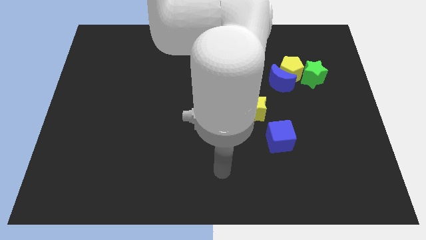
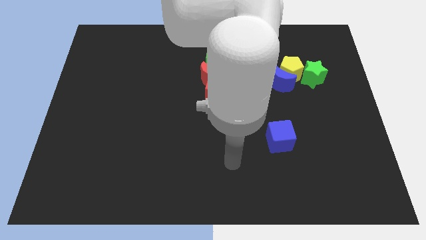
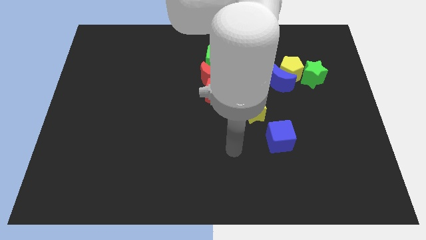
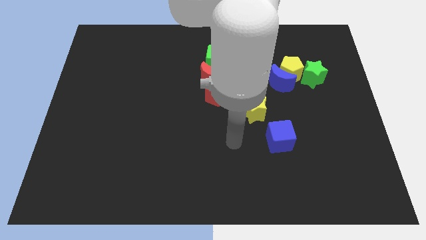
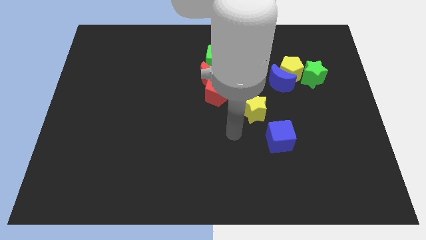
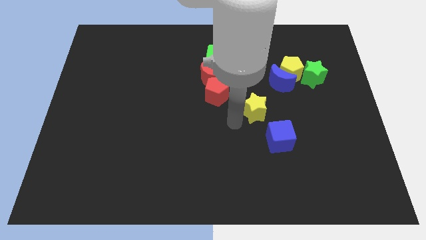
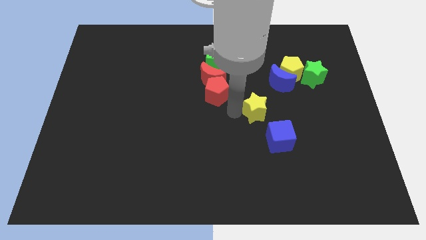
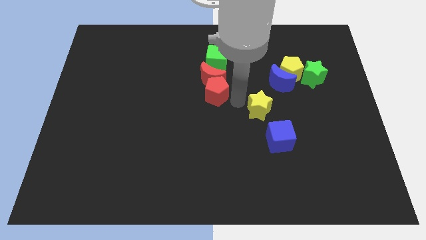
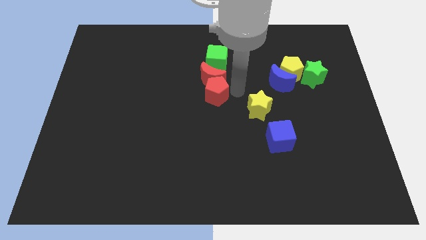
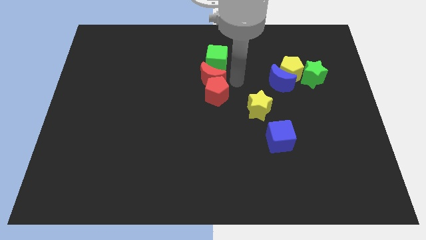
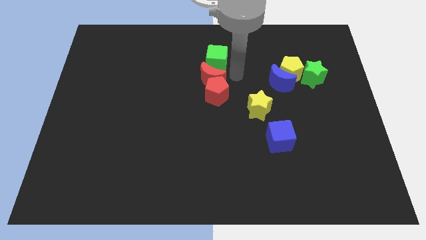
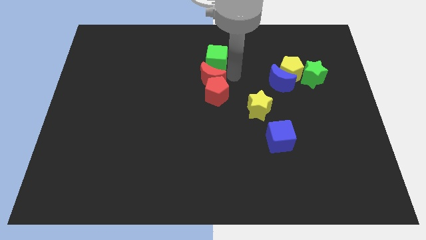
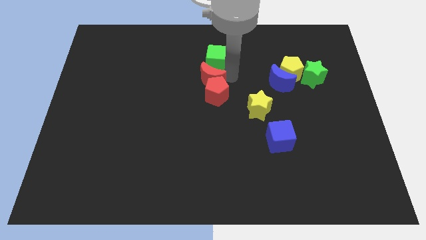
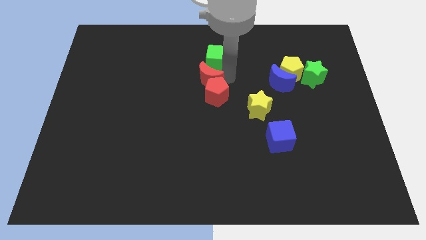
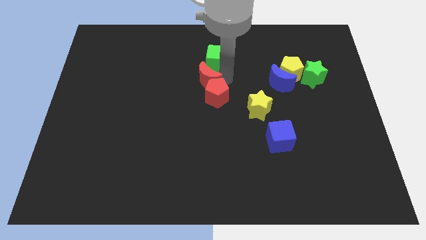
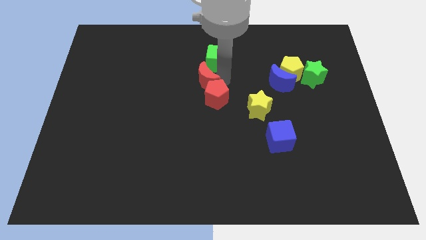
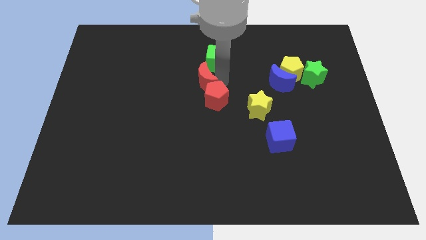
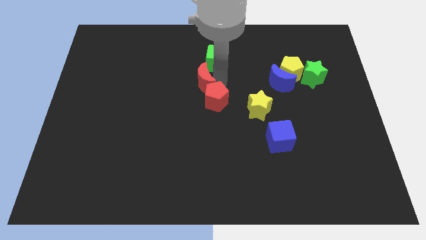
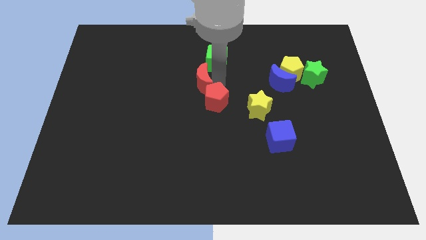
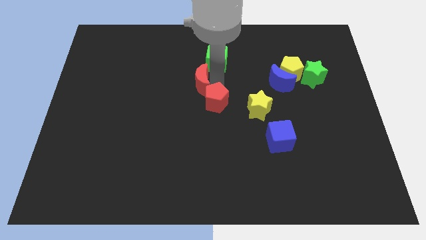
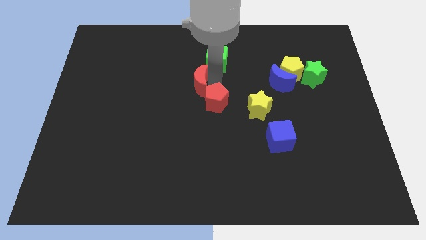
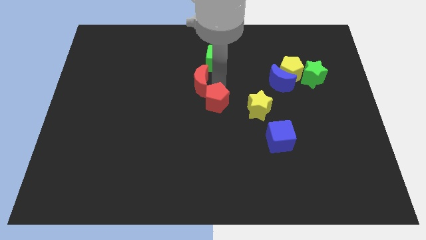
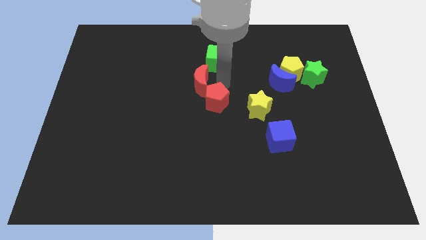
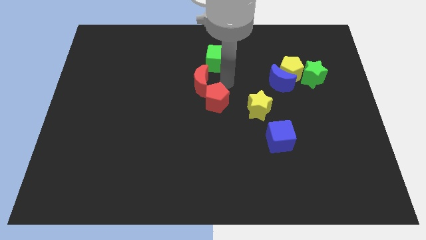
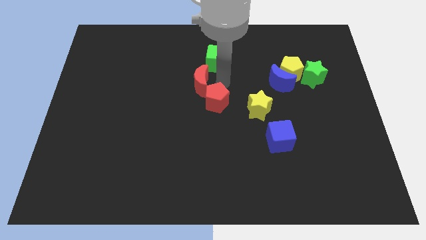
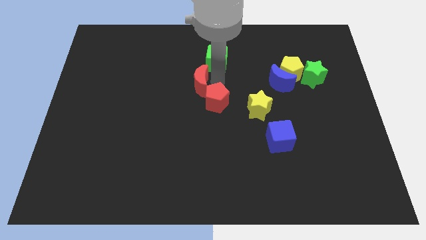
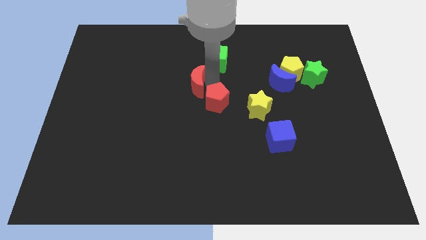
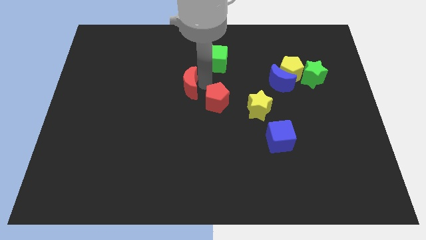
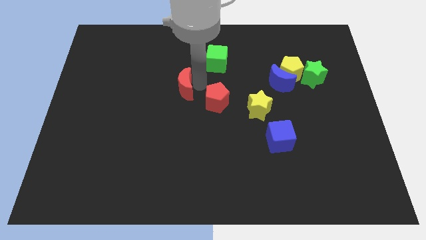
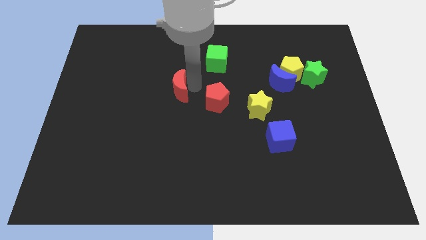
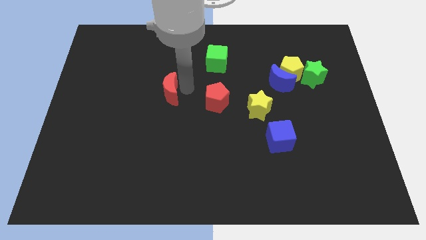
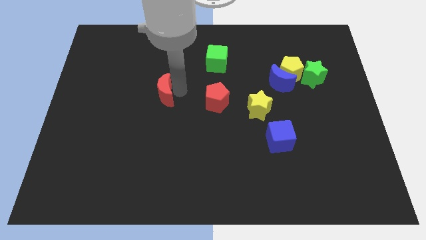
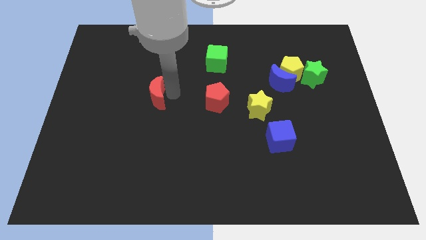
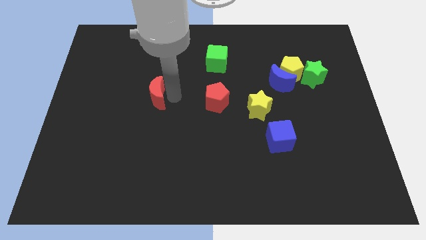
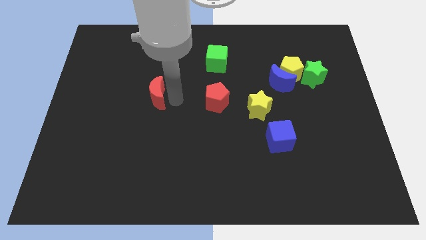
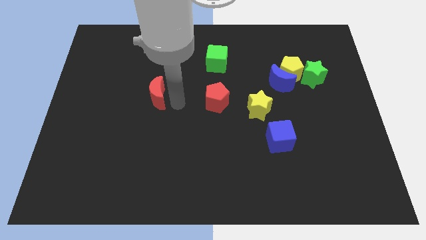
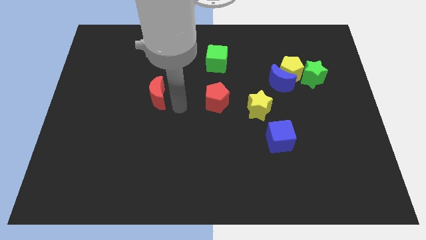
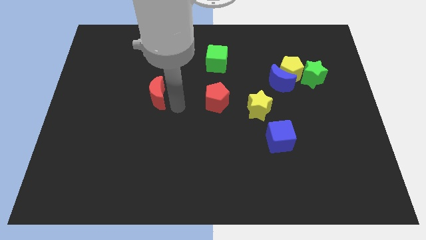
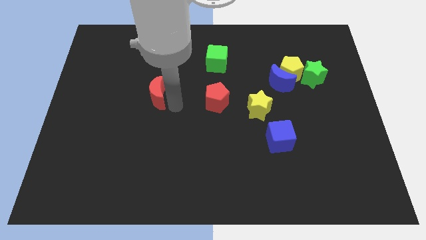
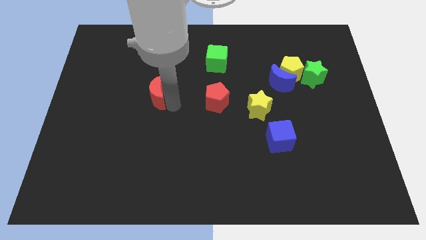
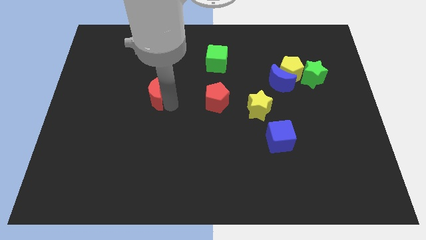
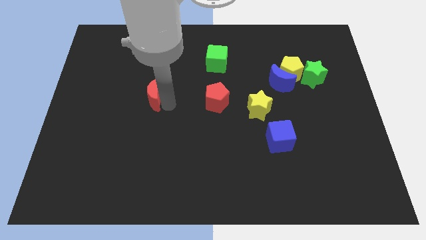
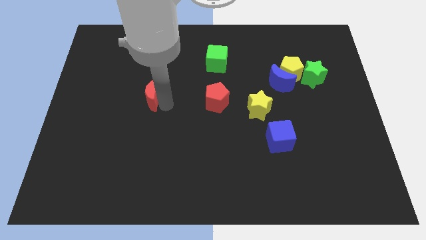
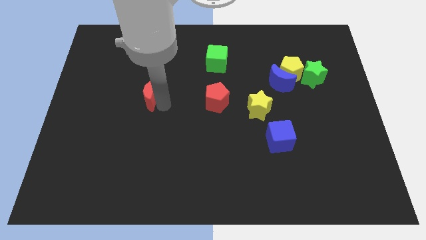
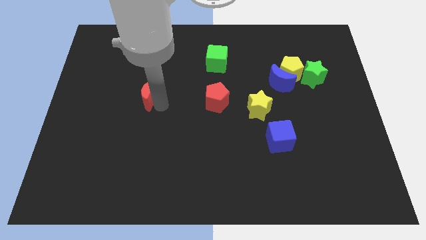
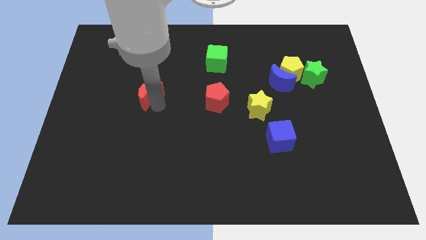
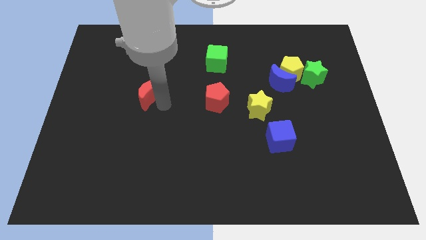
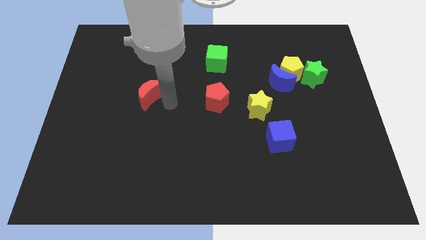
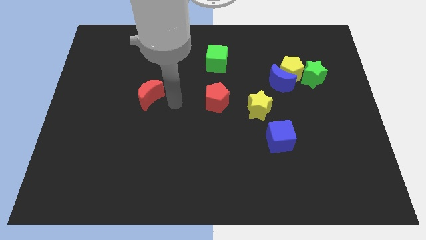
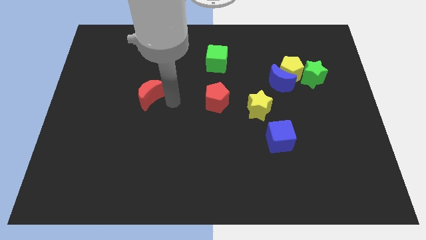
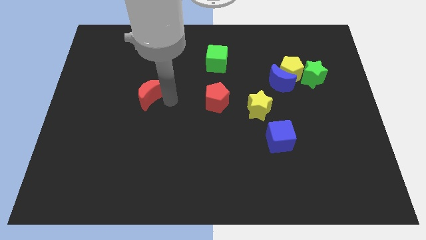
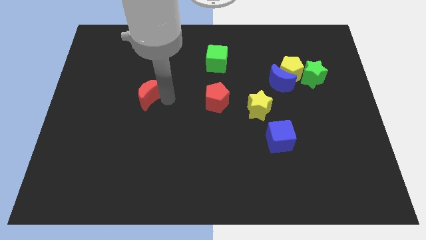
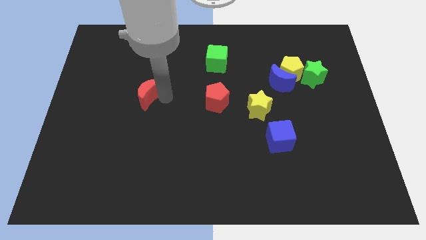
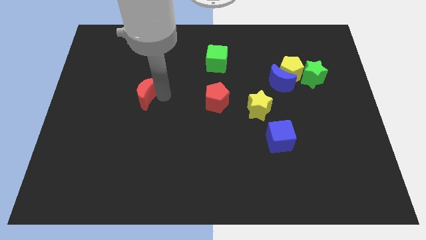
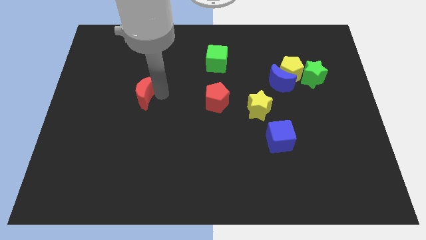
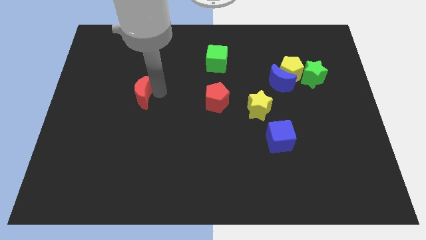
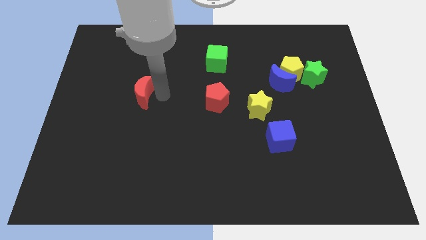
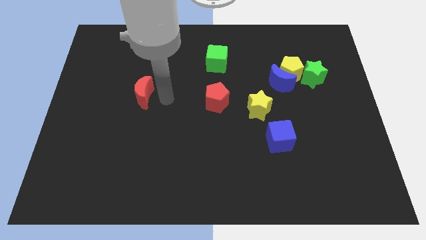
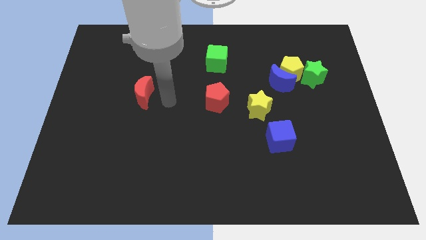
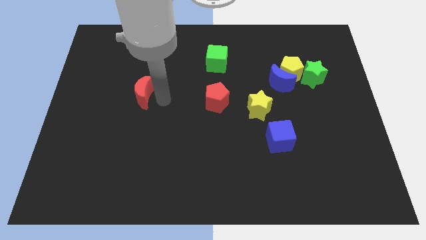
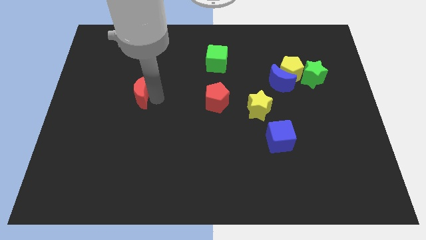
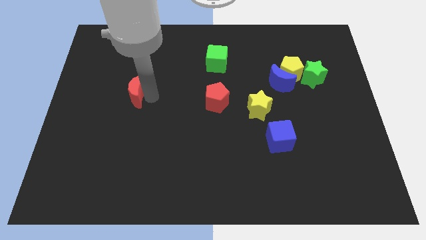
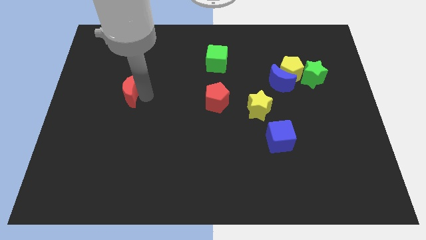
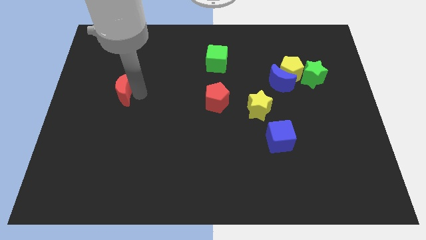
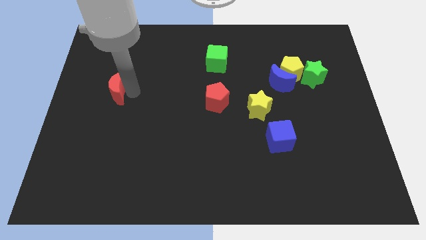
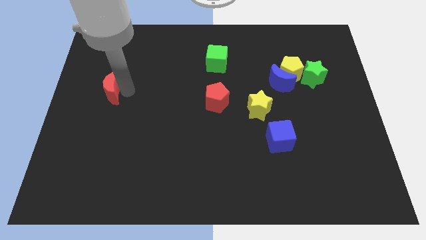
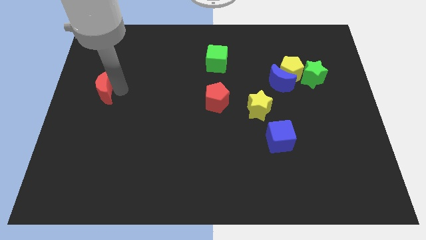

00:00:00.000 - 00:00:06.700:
move the red moon to the left side of the board

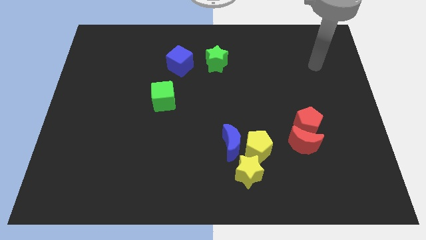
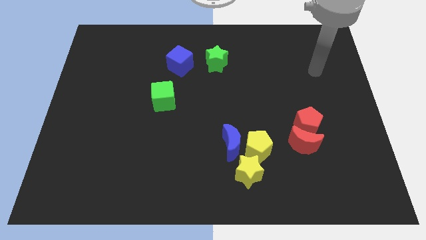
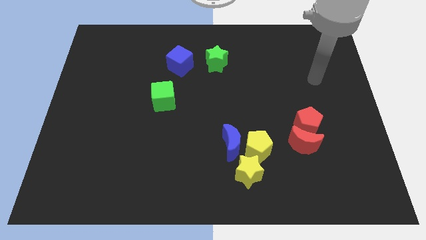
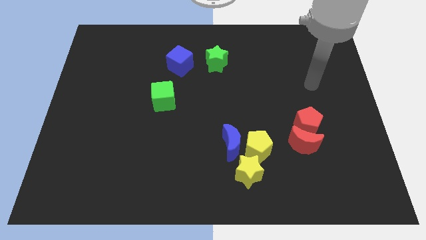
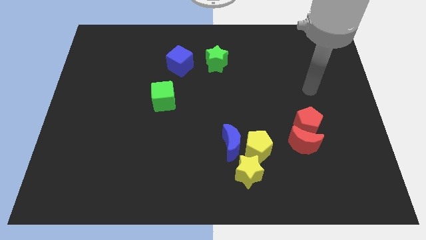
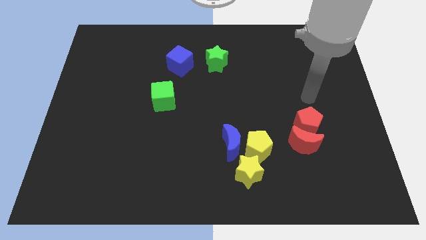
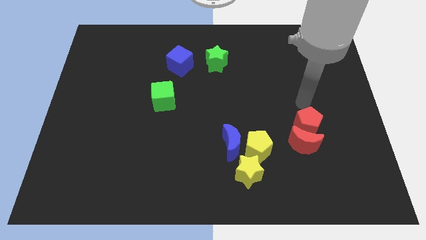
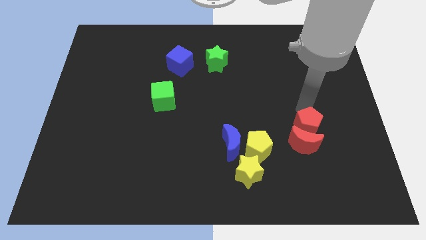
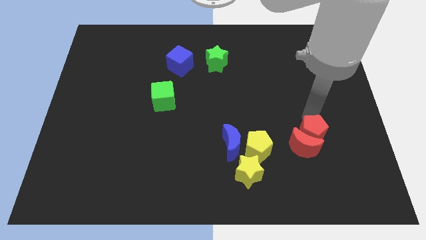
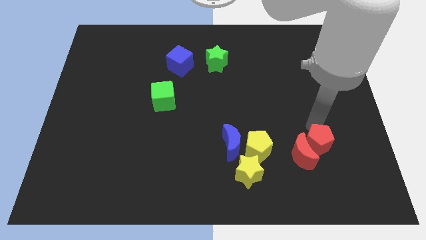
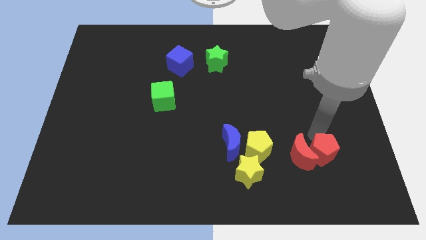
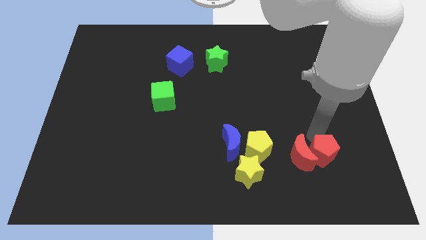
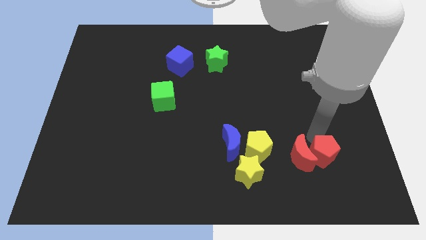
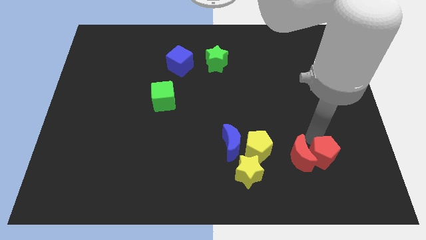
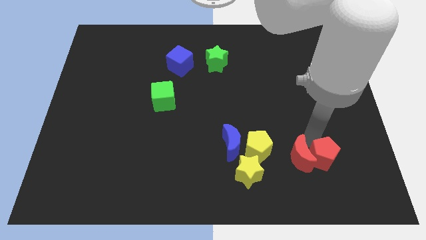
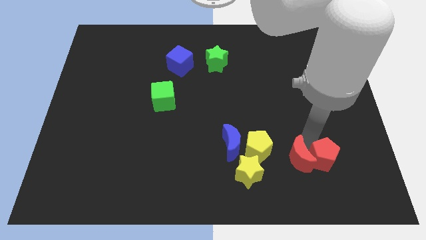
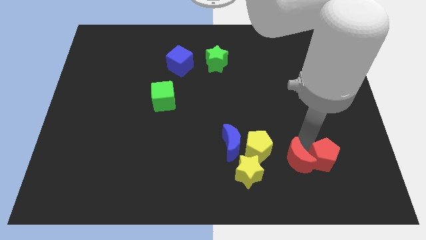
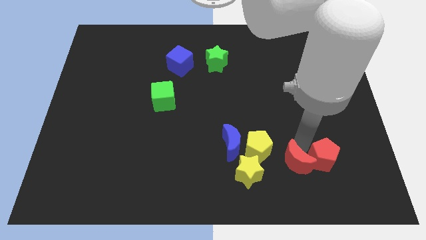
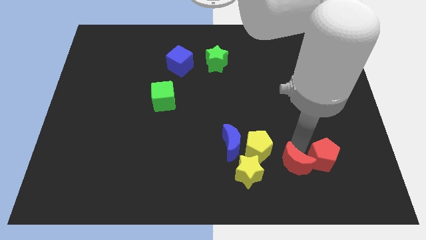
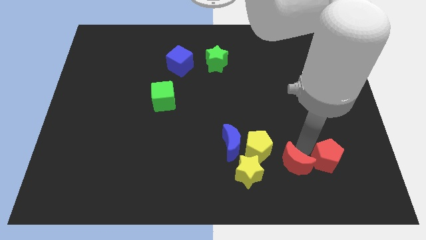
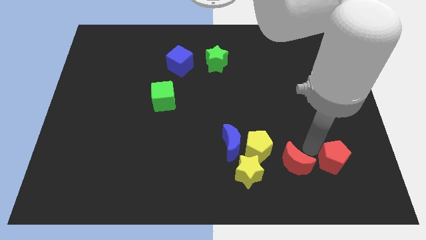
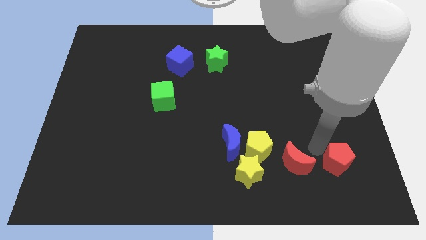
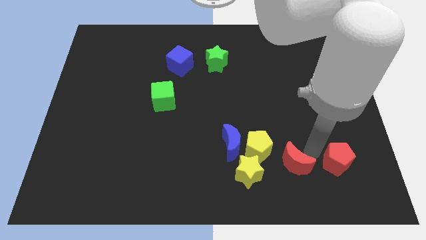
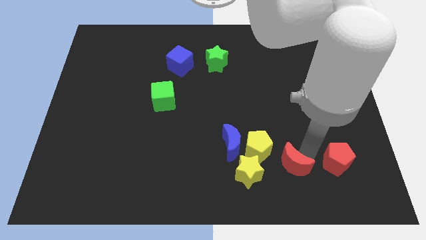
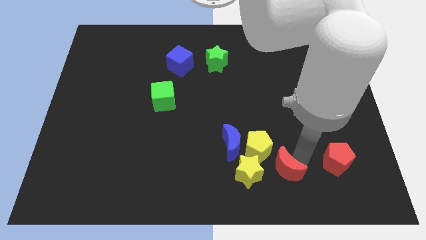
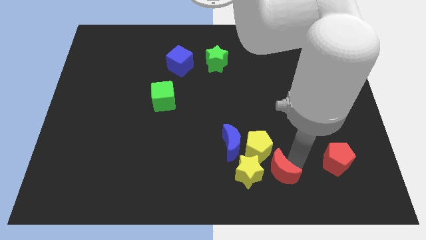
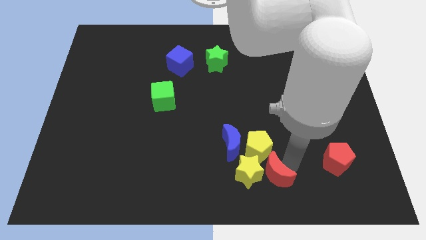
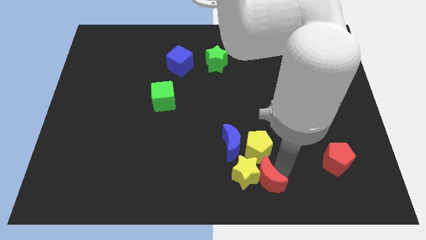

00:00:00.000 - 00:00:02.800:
put the red moon to the bottom side
